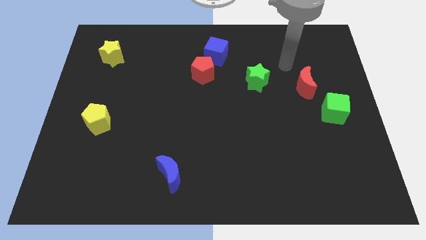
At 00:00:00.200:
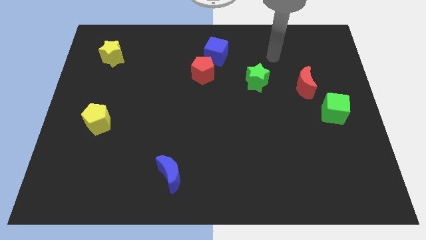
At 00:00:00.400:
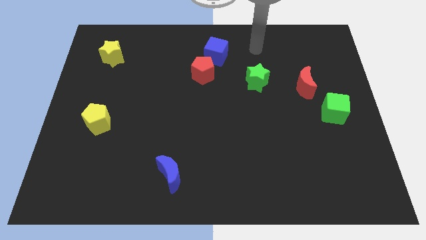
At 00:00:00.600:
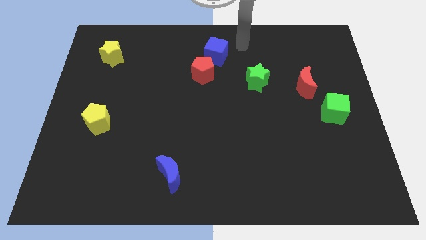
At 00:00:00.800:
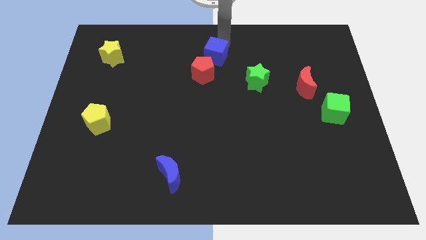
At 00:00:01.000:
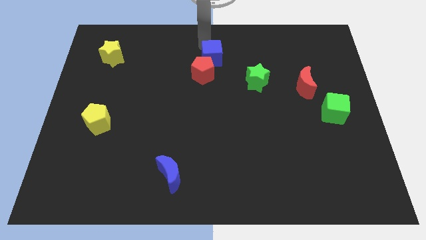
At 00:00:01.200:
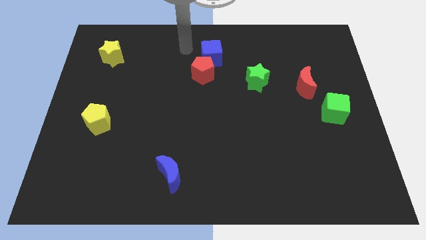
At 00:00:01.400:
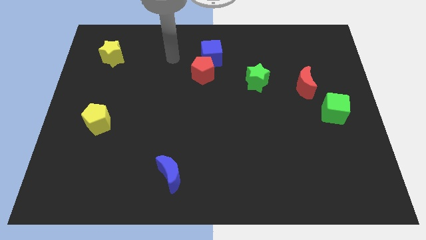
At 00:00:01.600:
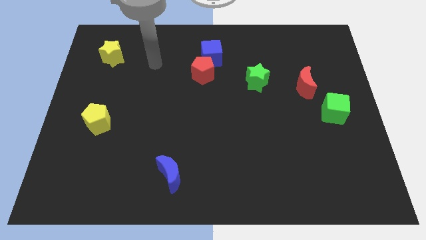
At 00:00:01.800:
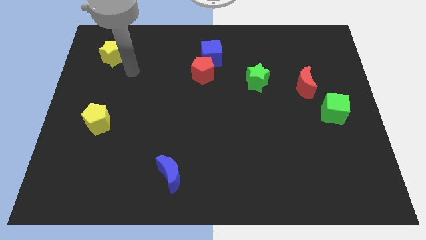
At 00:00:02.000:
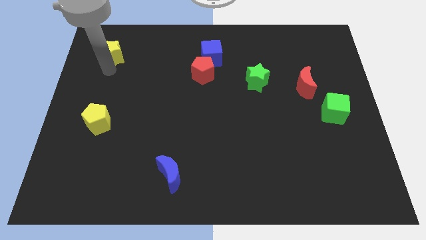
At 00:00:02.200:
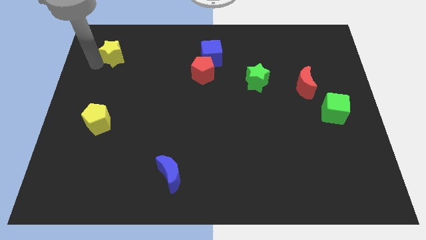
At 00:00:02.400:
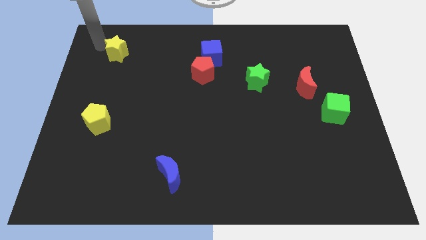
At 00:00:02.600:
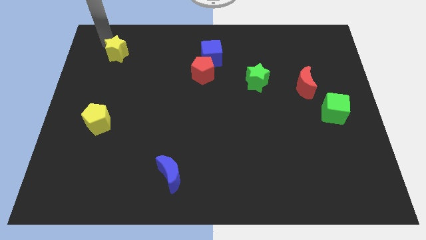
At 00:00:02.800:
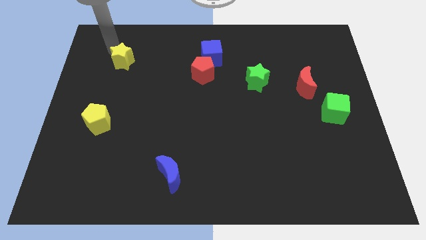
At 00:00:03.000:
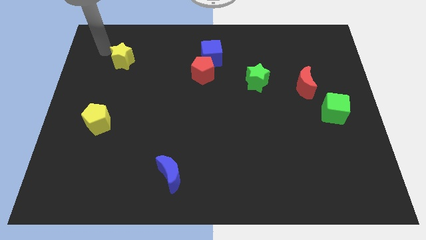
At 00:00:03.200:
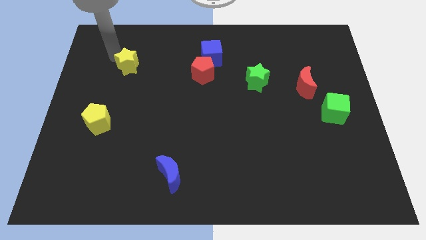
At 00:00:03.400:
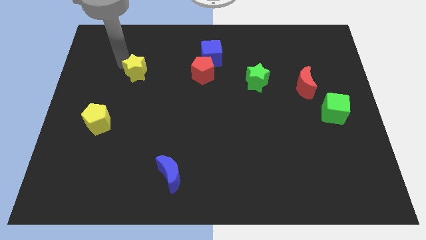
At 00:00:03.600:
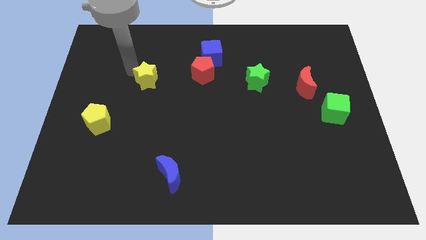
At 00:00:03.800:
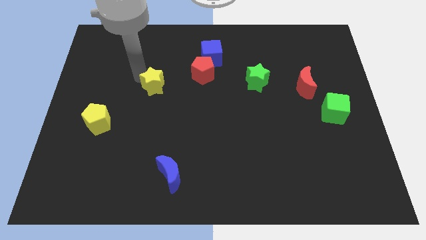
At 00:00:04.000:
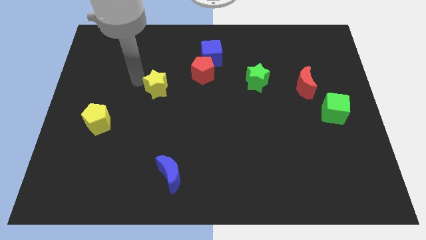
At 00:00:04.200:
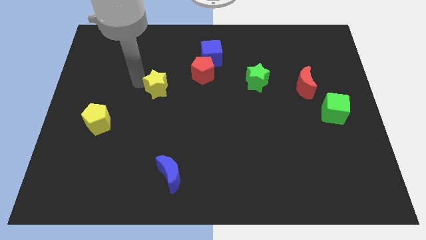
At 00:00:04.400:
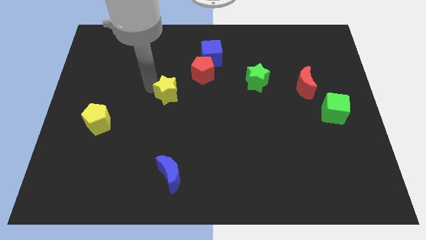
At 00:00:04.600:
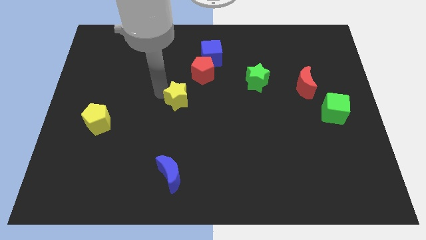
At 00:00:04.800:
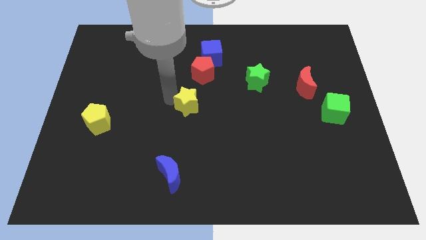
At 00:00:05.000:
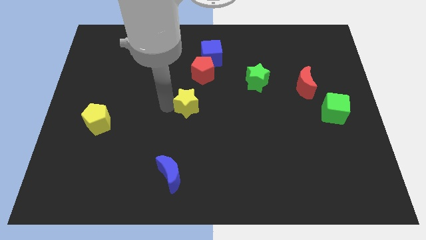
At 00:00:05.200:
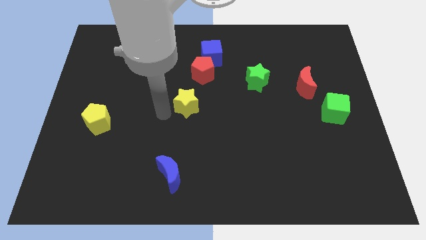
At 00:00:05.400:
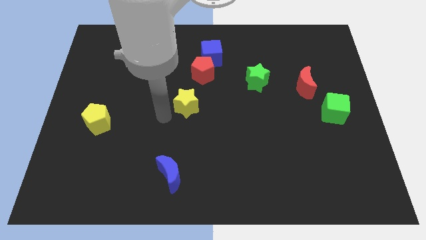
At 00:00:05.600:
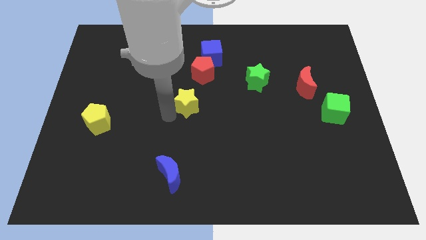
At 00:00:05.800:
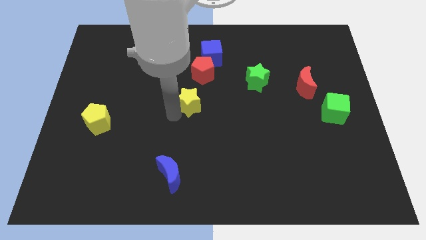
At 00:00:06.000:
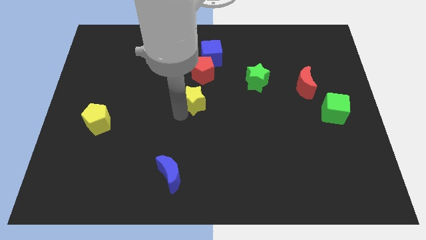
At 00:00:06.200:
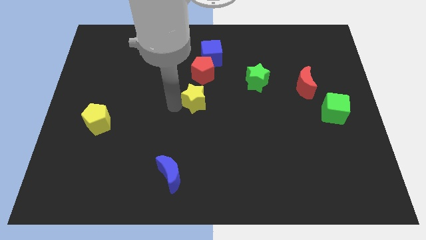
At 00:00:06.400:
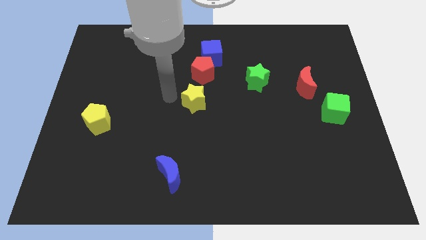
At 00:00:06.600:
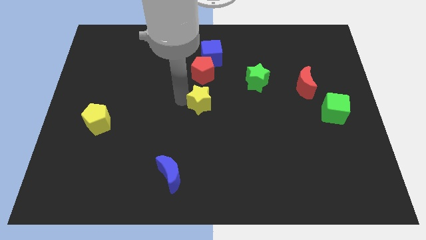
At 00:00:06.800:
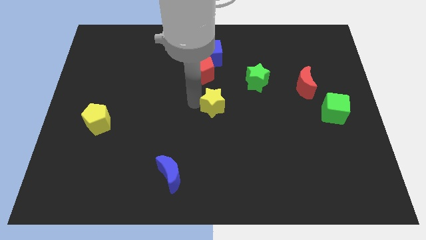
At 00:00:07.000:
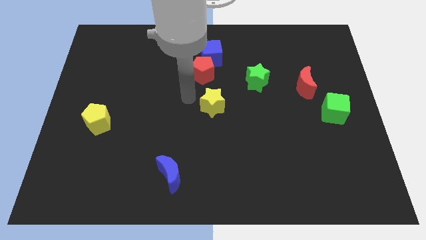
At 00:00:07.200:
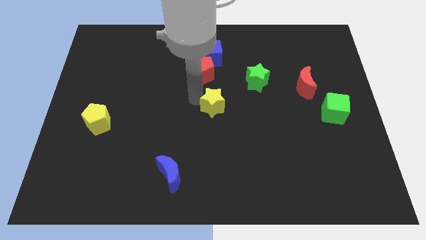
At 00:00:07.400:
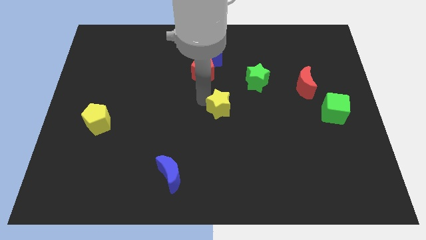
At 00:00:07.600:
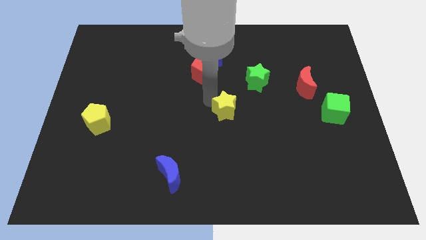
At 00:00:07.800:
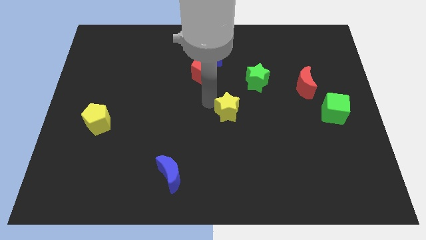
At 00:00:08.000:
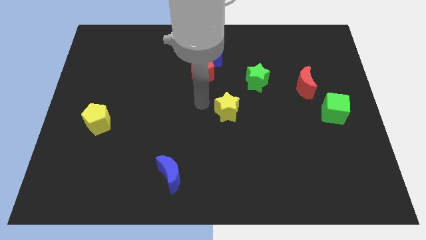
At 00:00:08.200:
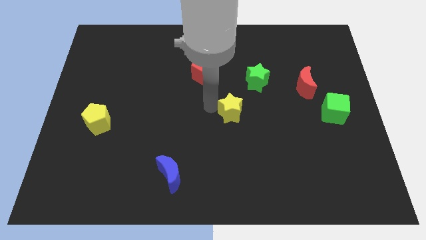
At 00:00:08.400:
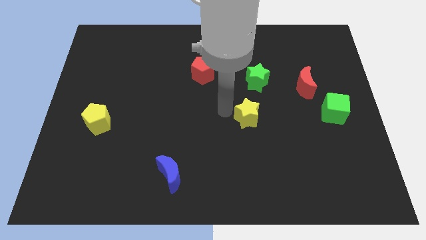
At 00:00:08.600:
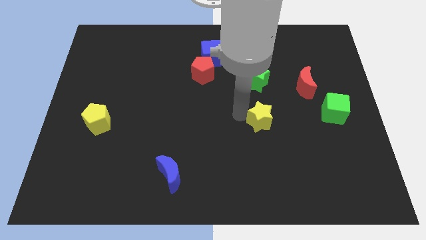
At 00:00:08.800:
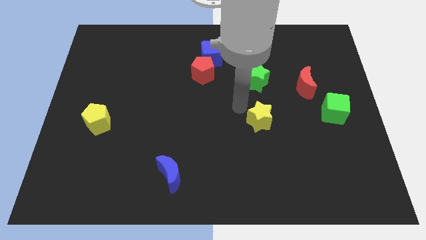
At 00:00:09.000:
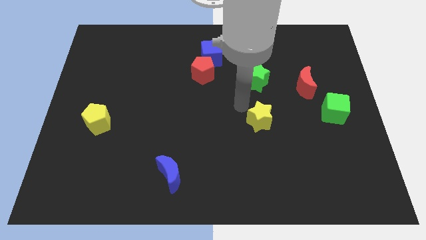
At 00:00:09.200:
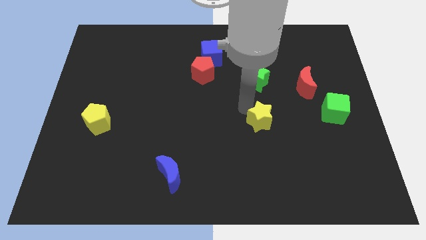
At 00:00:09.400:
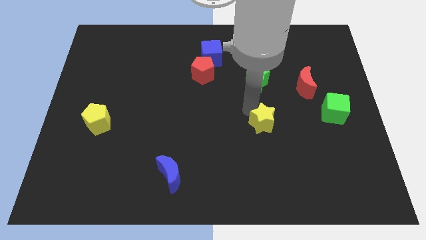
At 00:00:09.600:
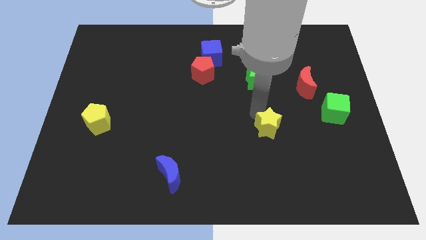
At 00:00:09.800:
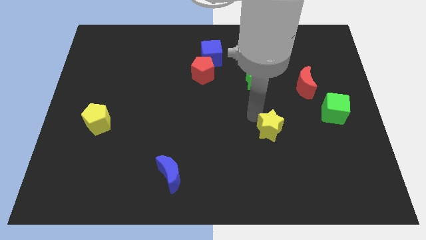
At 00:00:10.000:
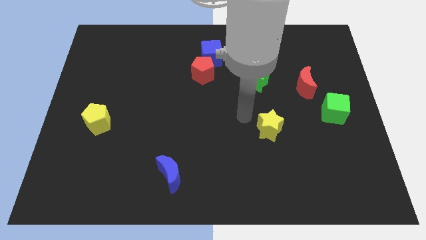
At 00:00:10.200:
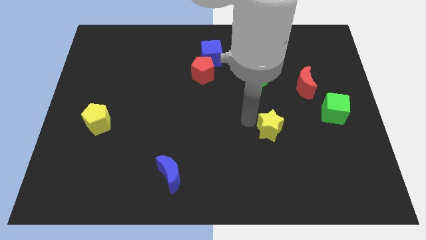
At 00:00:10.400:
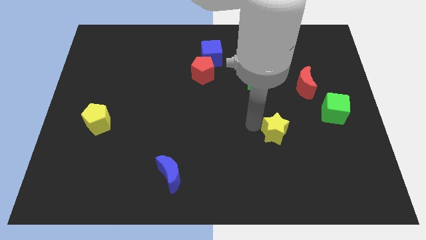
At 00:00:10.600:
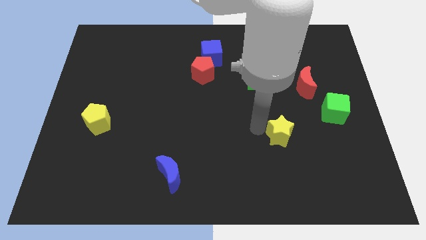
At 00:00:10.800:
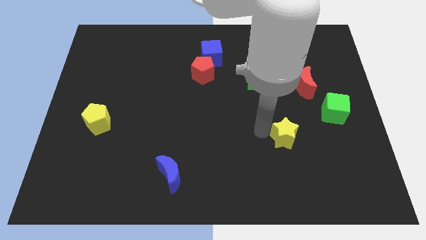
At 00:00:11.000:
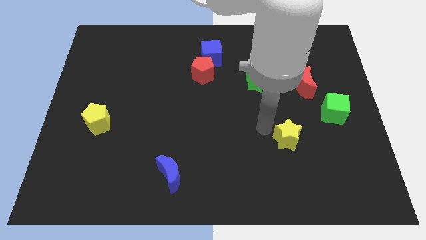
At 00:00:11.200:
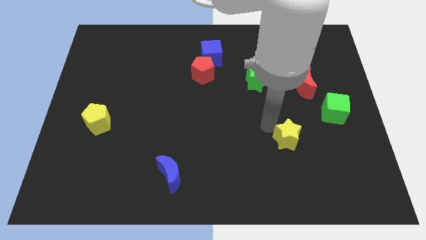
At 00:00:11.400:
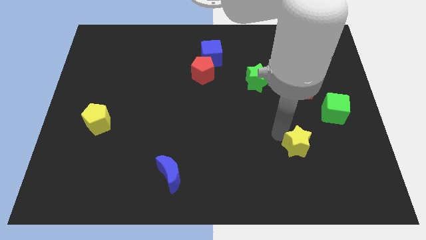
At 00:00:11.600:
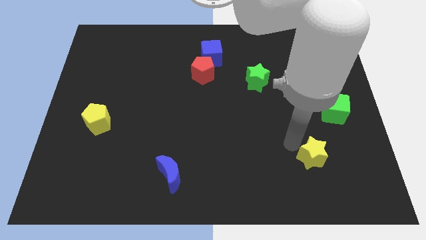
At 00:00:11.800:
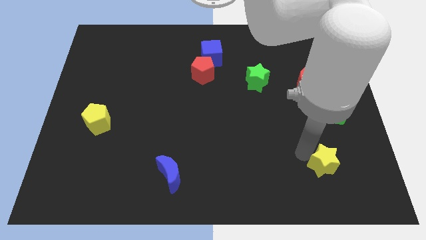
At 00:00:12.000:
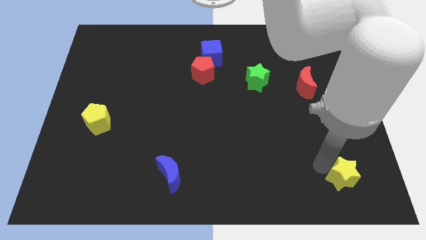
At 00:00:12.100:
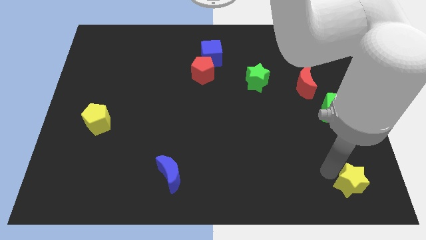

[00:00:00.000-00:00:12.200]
push the yellow star to the bottom right of the board

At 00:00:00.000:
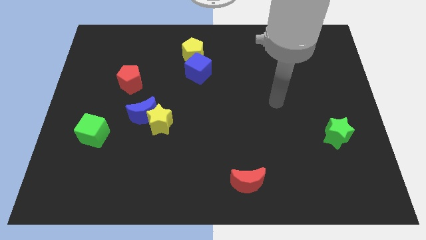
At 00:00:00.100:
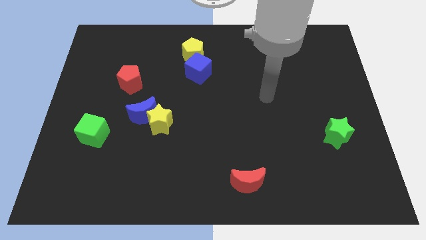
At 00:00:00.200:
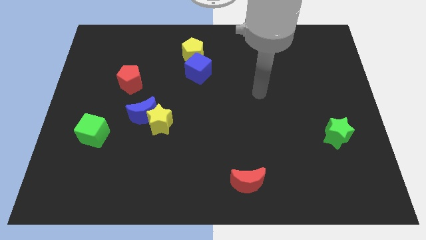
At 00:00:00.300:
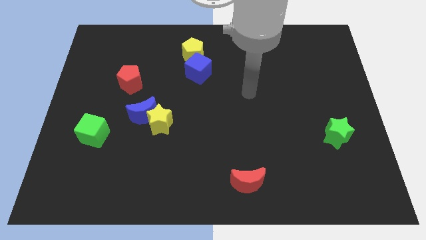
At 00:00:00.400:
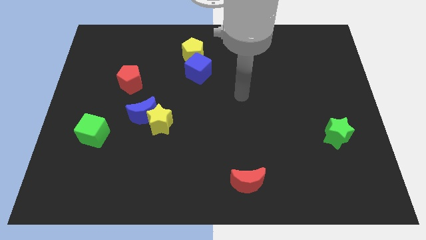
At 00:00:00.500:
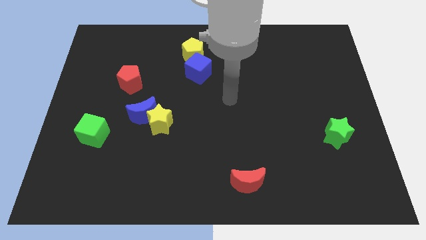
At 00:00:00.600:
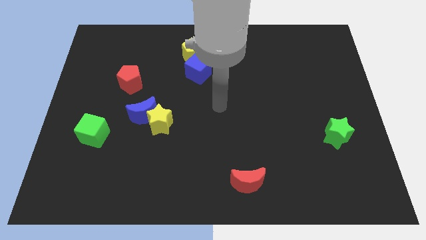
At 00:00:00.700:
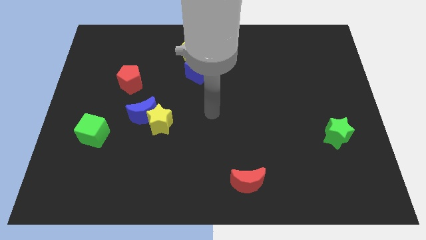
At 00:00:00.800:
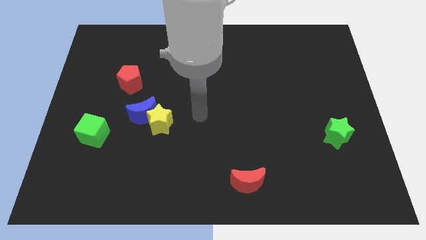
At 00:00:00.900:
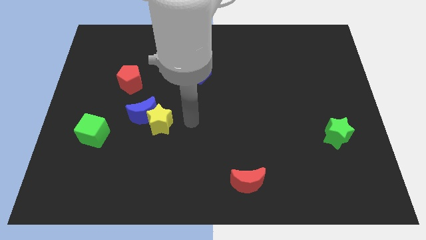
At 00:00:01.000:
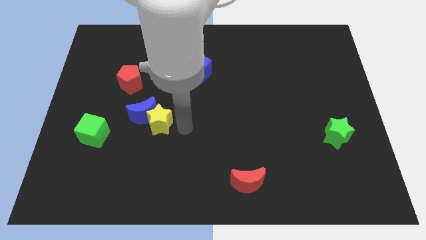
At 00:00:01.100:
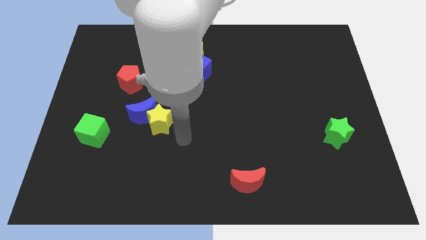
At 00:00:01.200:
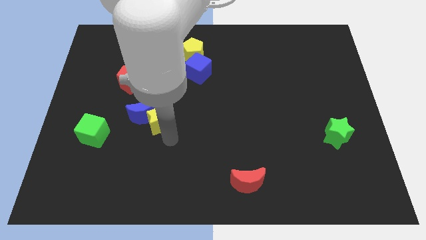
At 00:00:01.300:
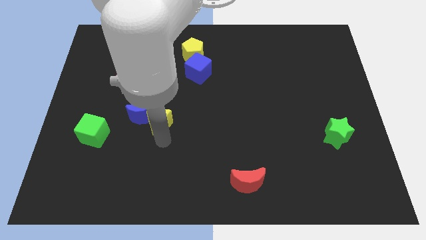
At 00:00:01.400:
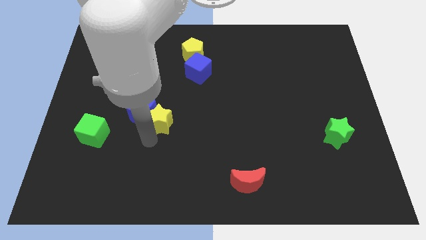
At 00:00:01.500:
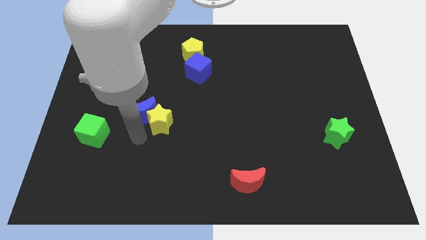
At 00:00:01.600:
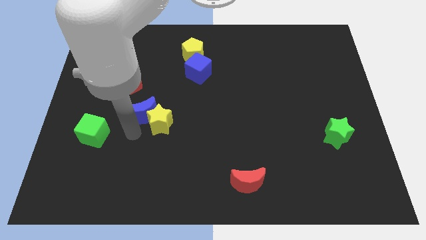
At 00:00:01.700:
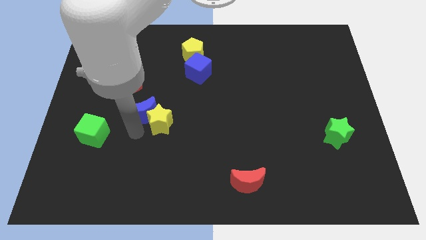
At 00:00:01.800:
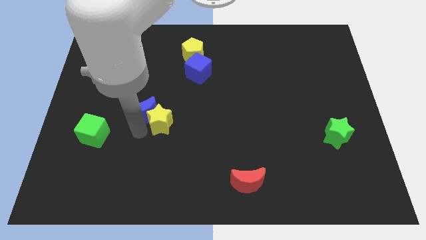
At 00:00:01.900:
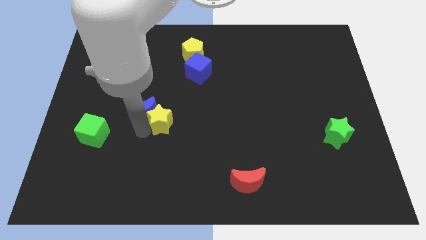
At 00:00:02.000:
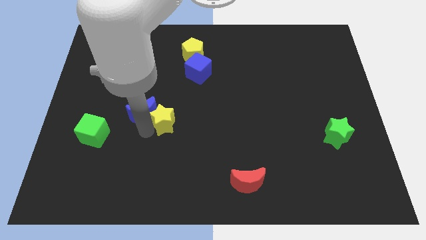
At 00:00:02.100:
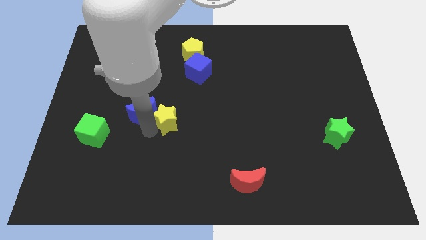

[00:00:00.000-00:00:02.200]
put the yellow star to the center
